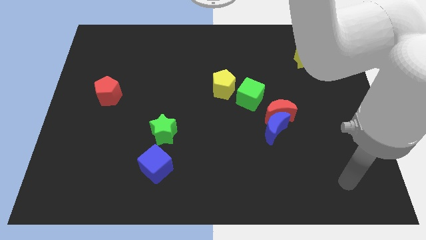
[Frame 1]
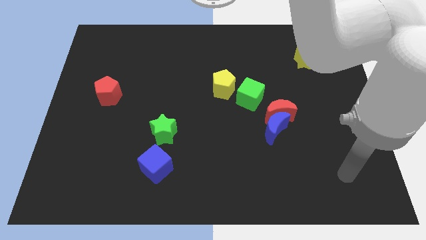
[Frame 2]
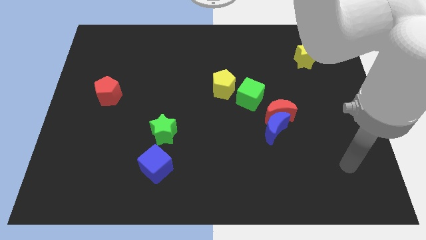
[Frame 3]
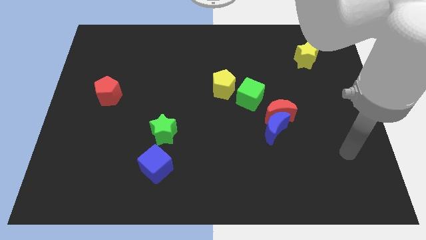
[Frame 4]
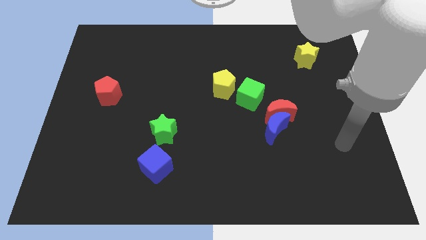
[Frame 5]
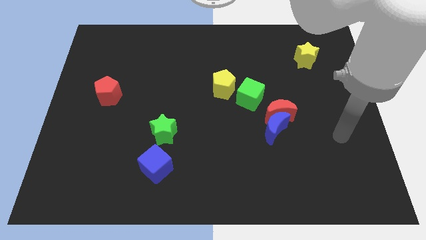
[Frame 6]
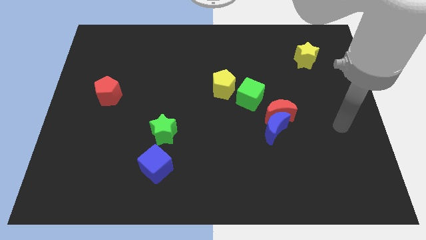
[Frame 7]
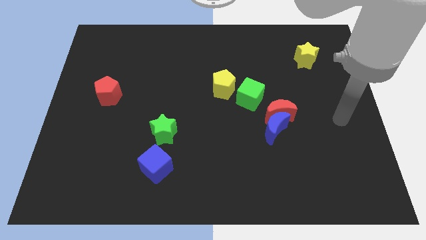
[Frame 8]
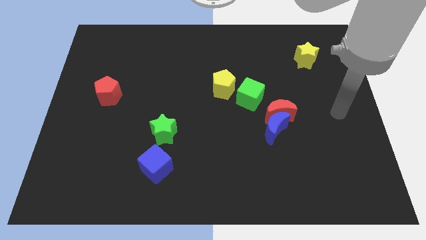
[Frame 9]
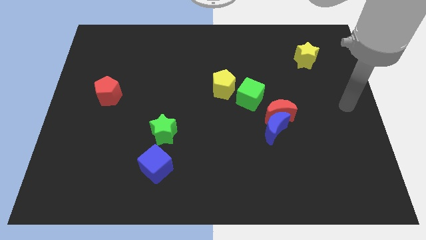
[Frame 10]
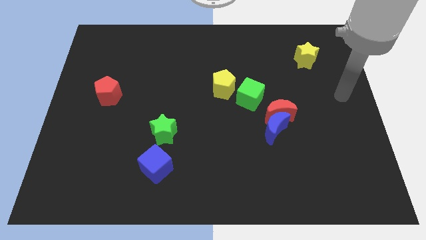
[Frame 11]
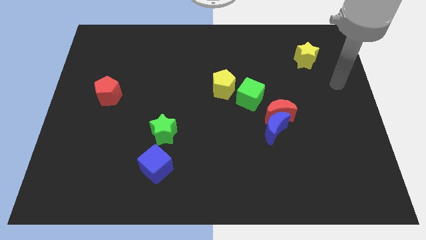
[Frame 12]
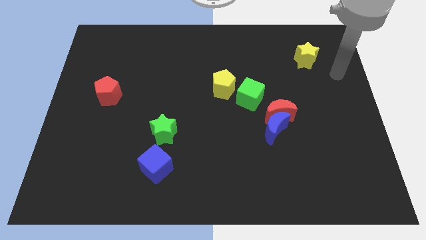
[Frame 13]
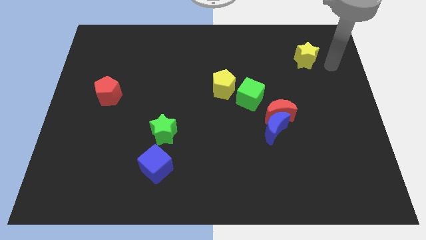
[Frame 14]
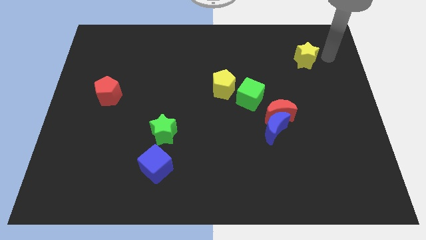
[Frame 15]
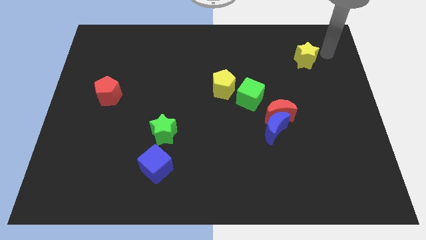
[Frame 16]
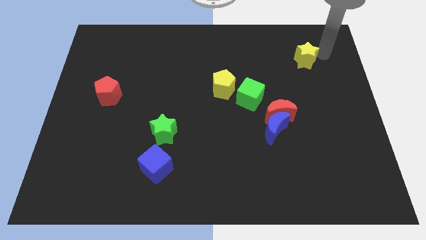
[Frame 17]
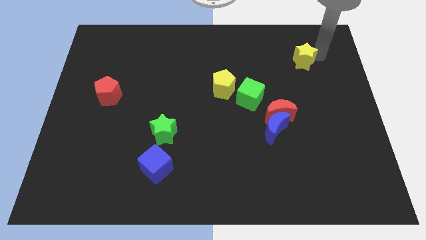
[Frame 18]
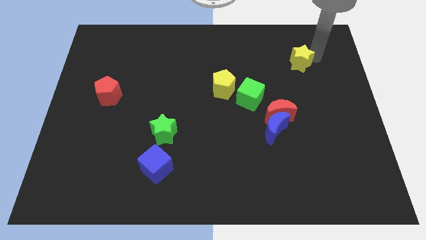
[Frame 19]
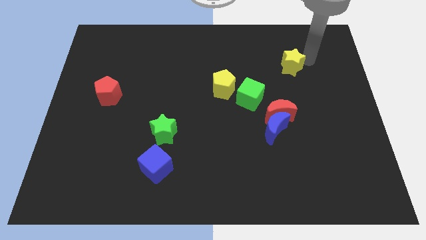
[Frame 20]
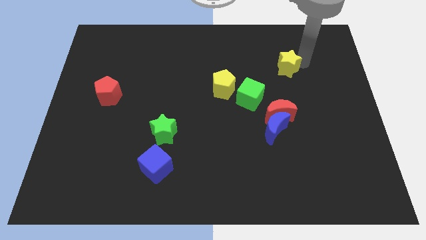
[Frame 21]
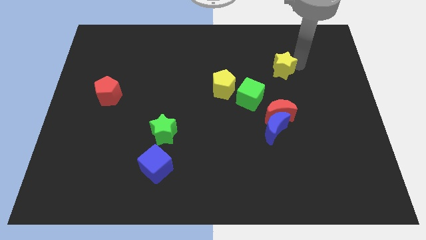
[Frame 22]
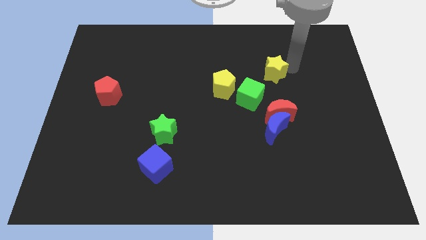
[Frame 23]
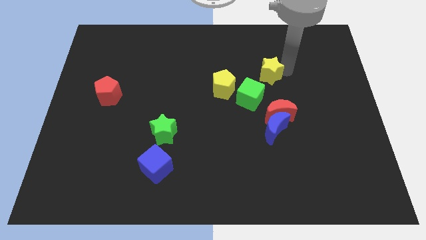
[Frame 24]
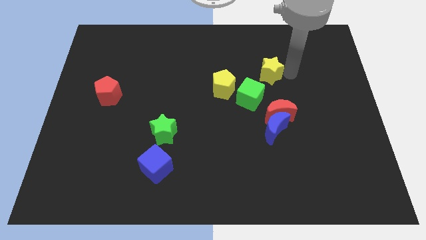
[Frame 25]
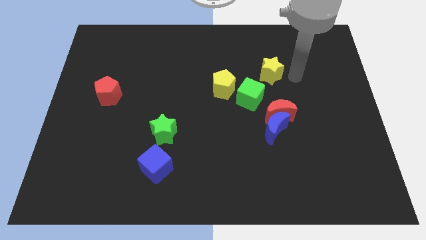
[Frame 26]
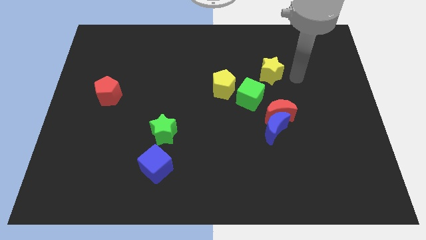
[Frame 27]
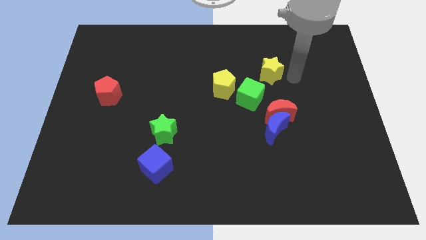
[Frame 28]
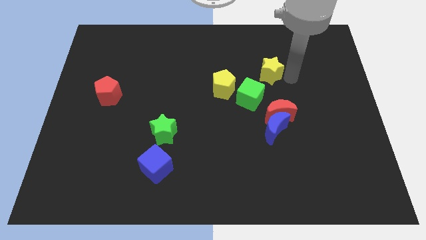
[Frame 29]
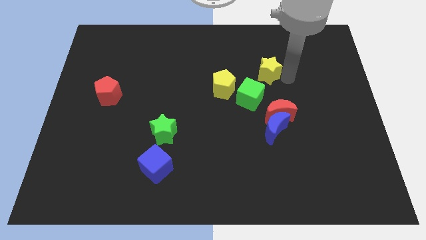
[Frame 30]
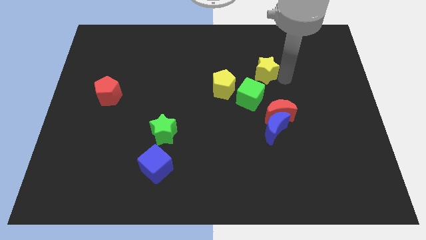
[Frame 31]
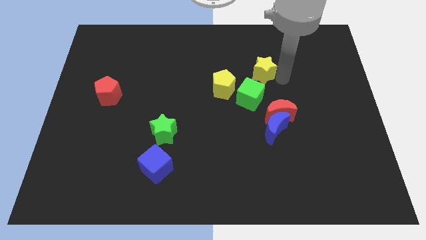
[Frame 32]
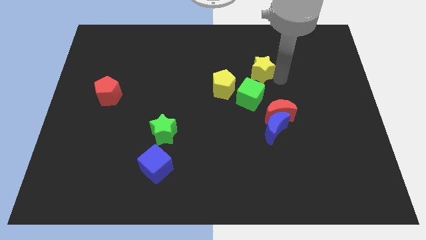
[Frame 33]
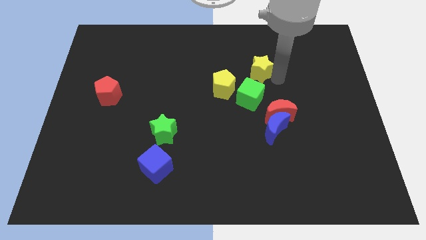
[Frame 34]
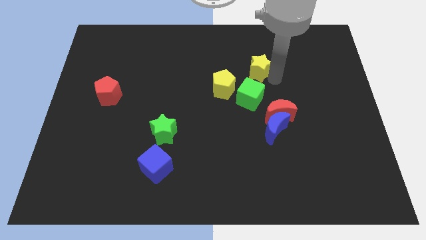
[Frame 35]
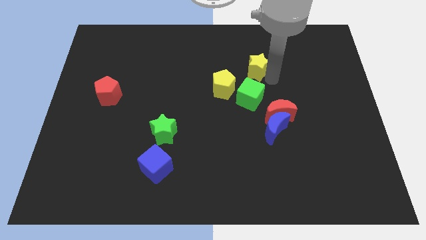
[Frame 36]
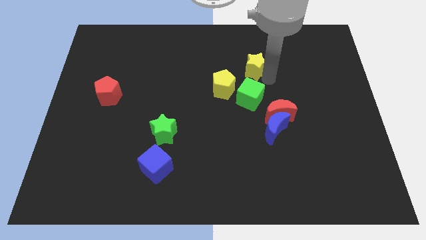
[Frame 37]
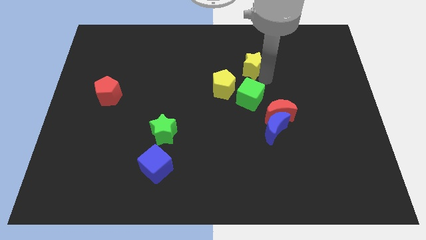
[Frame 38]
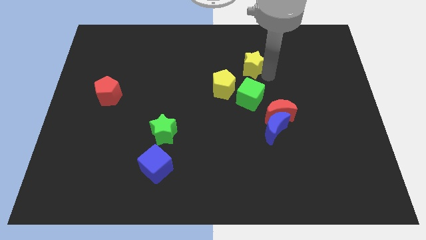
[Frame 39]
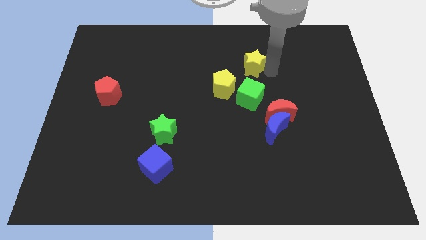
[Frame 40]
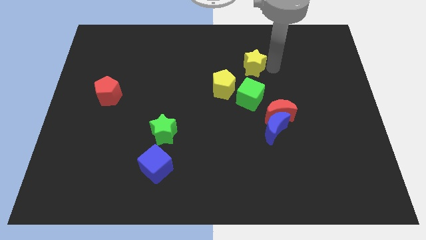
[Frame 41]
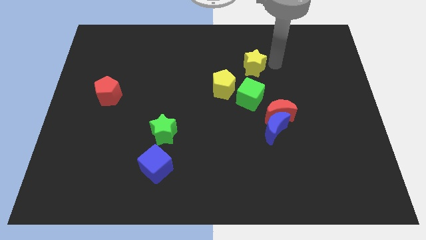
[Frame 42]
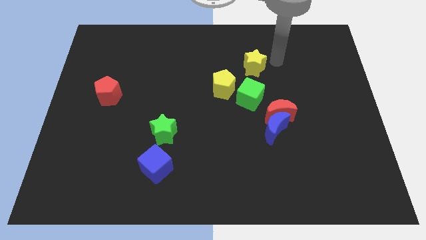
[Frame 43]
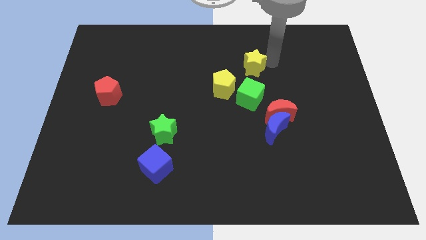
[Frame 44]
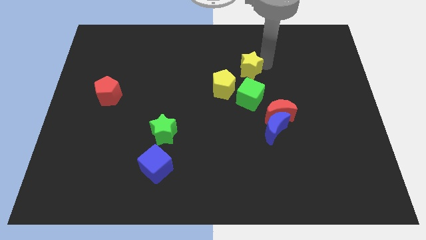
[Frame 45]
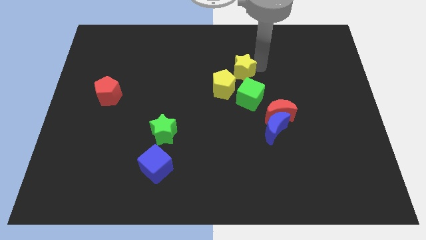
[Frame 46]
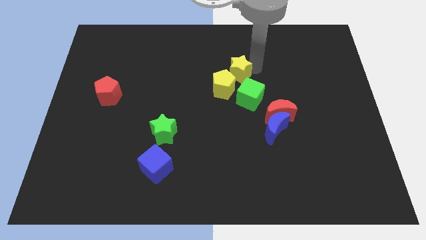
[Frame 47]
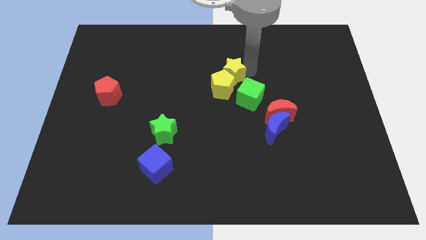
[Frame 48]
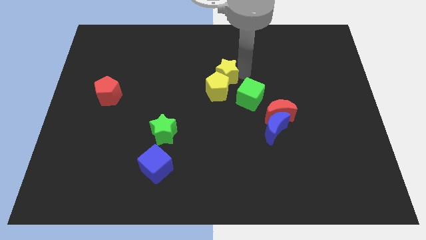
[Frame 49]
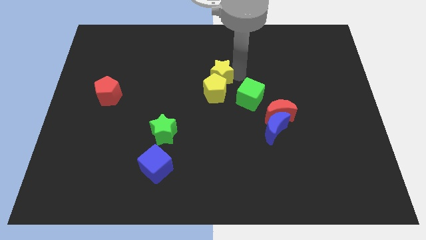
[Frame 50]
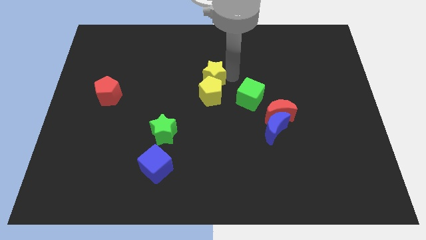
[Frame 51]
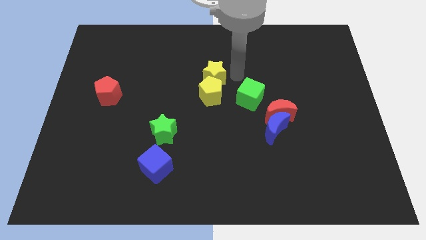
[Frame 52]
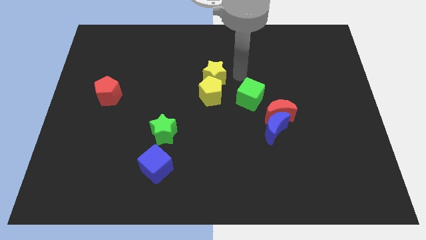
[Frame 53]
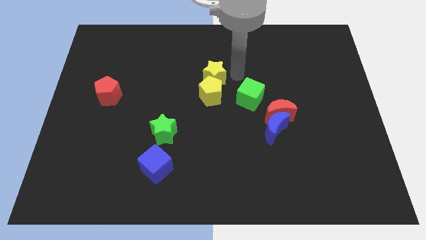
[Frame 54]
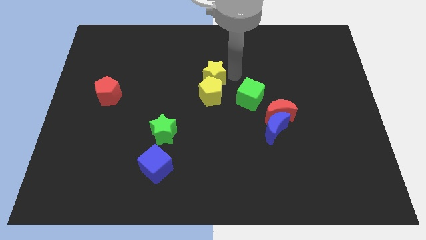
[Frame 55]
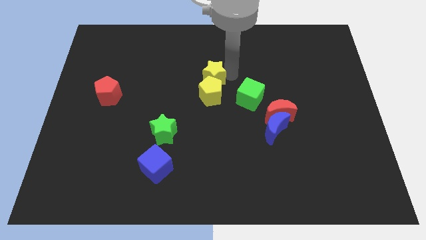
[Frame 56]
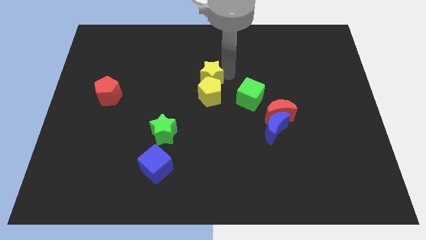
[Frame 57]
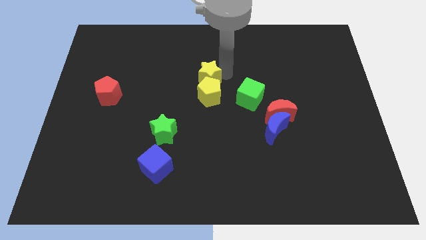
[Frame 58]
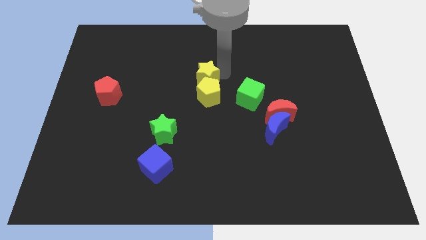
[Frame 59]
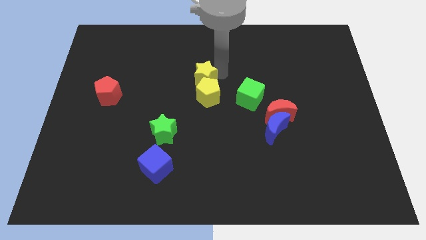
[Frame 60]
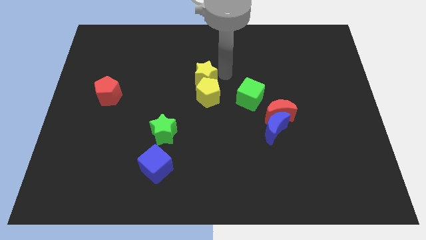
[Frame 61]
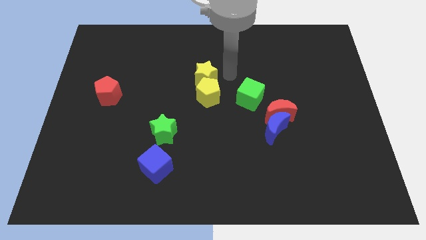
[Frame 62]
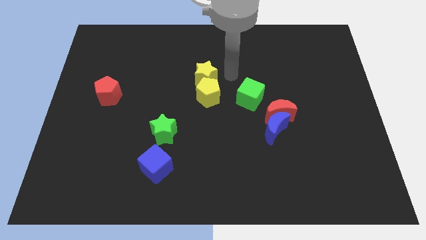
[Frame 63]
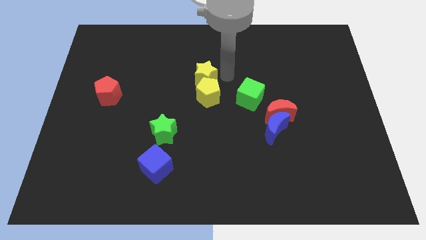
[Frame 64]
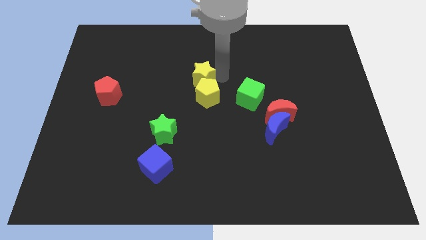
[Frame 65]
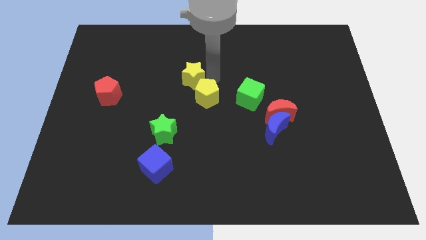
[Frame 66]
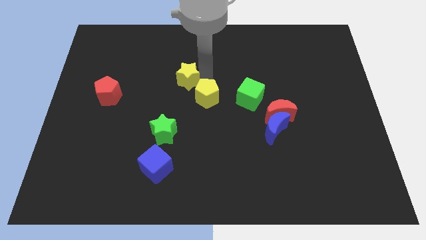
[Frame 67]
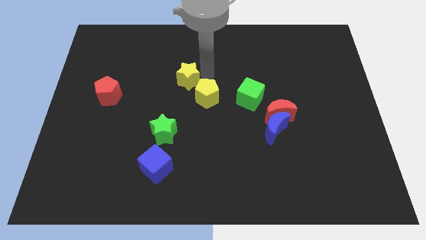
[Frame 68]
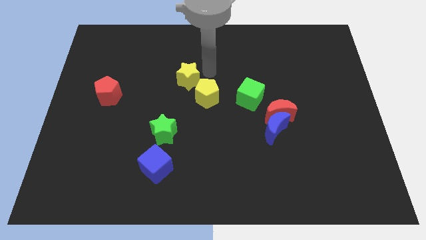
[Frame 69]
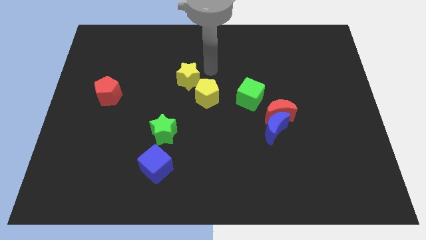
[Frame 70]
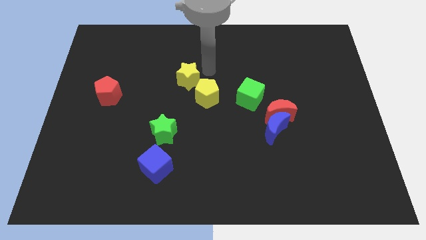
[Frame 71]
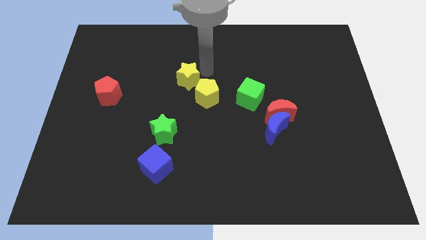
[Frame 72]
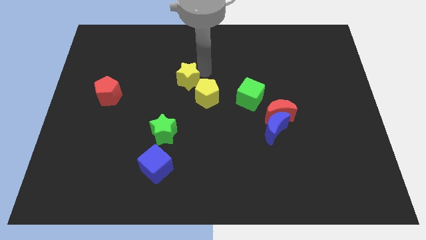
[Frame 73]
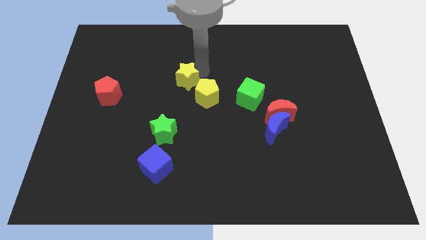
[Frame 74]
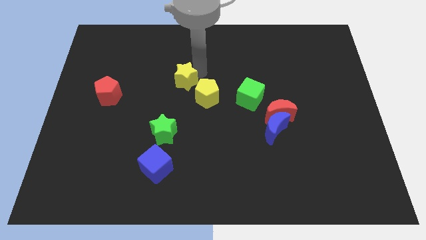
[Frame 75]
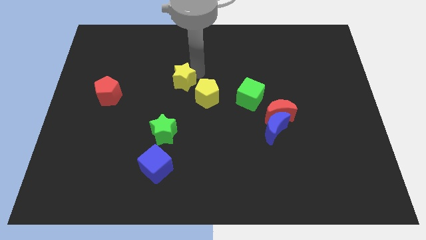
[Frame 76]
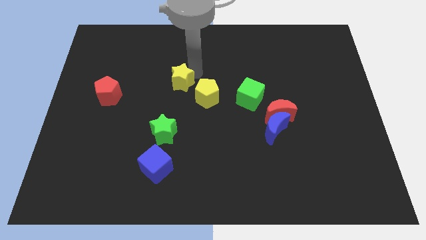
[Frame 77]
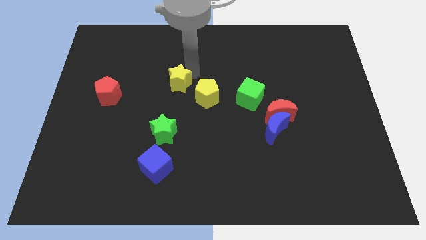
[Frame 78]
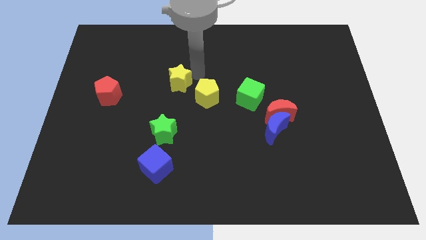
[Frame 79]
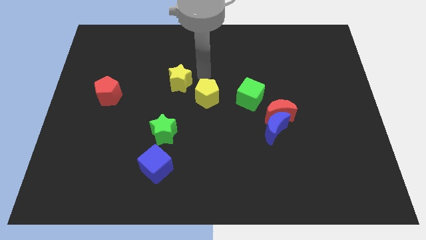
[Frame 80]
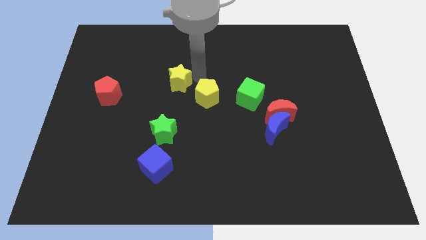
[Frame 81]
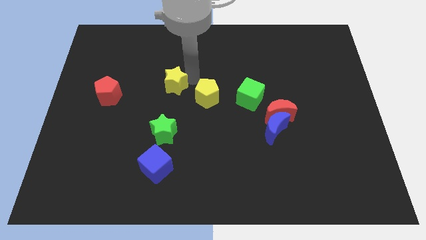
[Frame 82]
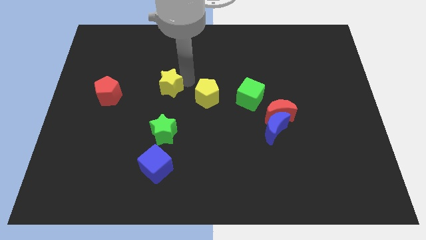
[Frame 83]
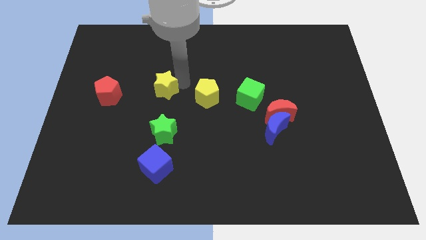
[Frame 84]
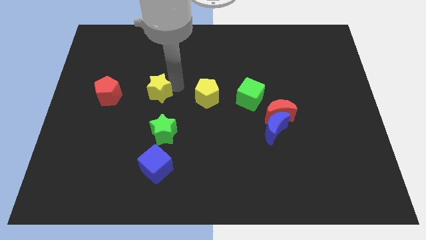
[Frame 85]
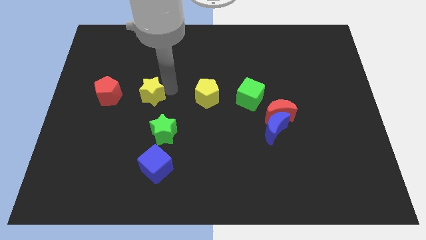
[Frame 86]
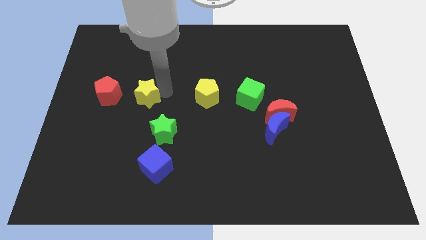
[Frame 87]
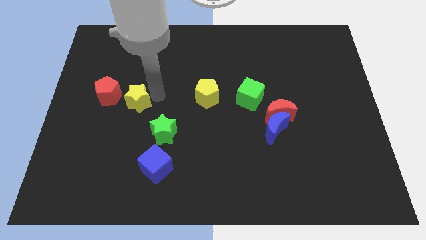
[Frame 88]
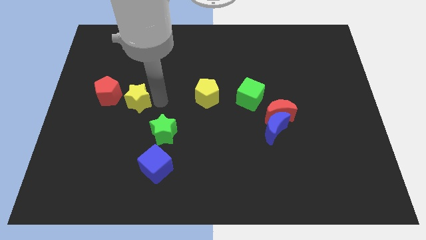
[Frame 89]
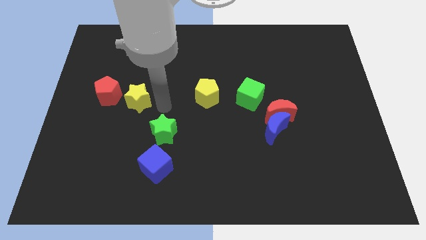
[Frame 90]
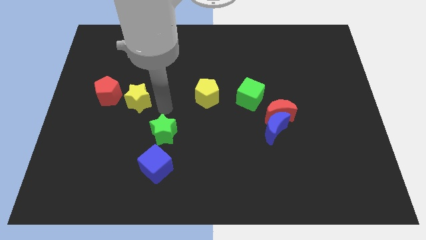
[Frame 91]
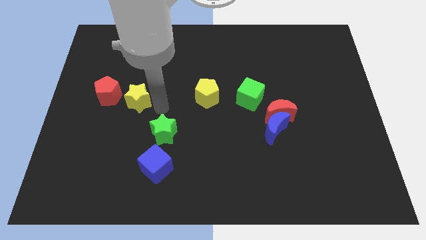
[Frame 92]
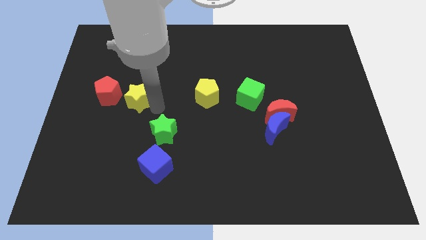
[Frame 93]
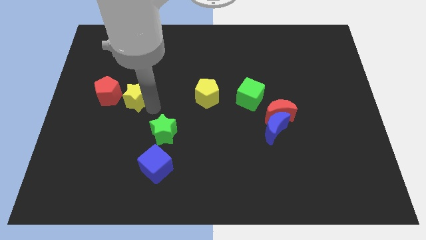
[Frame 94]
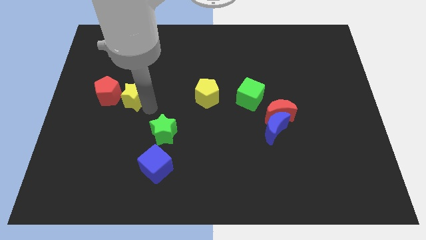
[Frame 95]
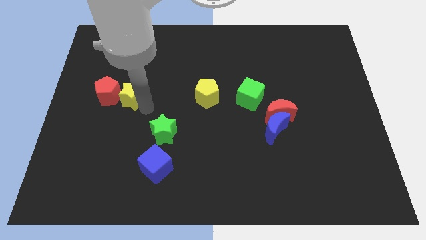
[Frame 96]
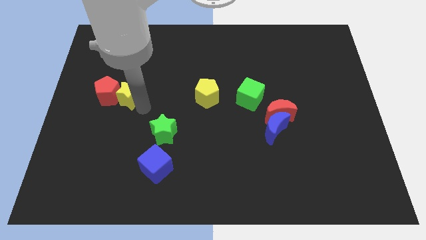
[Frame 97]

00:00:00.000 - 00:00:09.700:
move the yellow star close to the red pentagon
